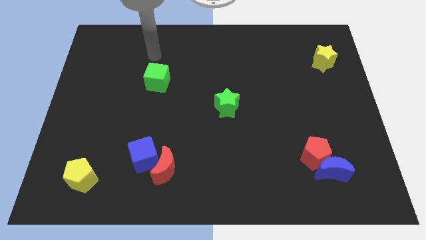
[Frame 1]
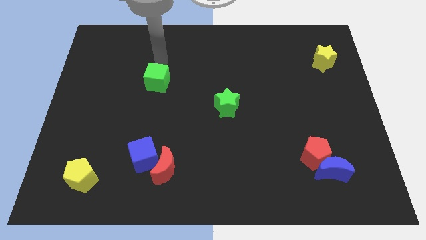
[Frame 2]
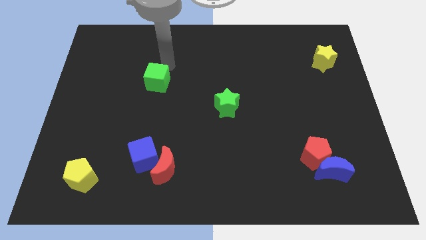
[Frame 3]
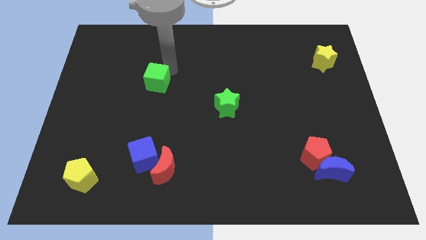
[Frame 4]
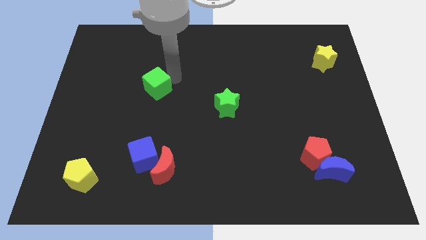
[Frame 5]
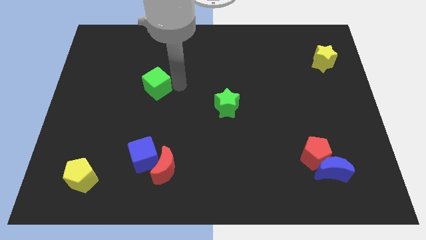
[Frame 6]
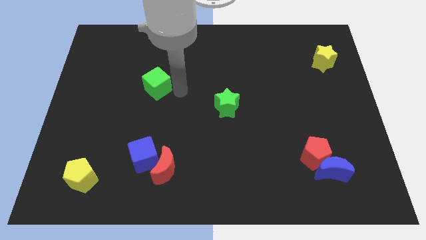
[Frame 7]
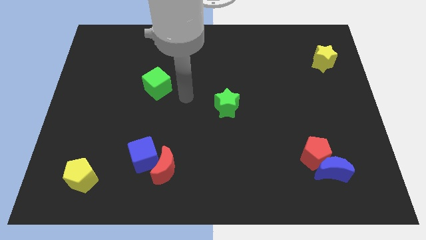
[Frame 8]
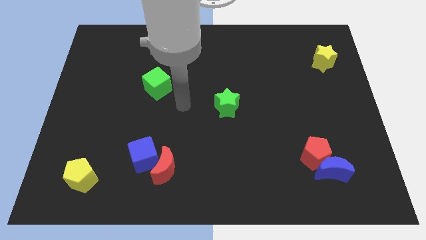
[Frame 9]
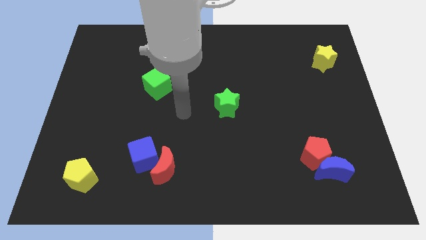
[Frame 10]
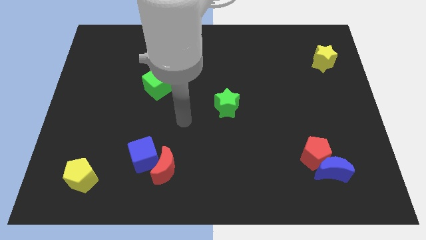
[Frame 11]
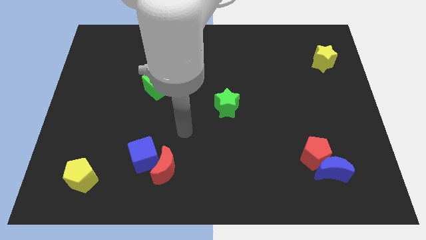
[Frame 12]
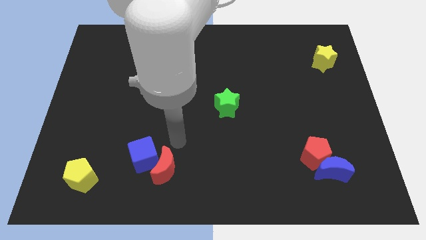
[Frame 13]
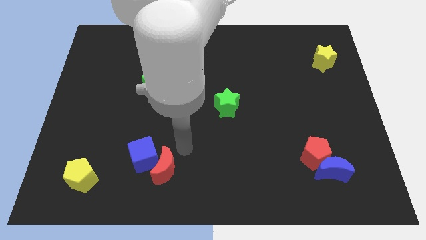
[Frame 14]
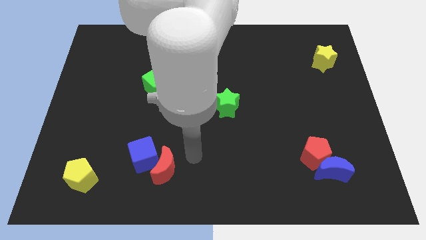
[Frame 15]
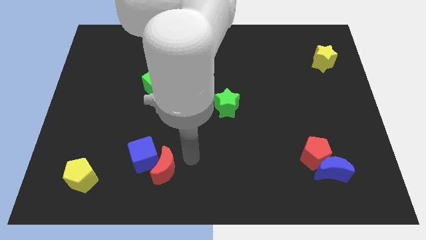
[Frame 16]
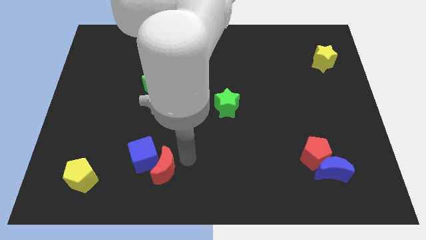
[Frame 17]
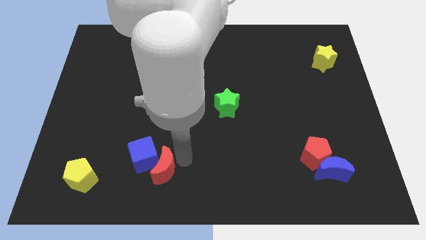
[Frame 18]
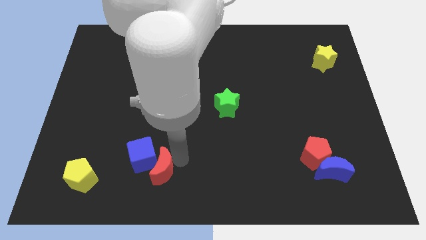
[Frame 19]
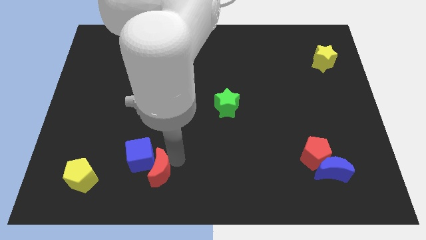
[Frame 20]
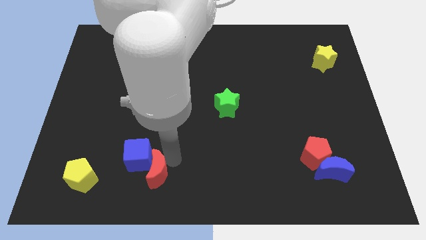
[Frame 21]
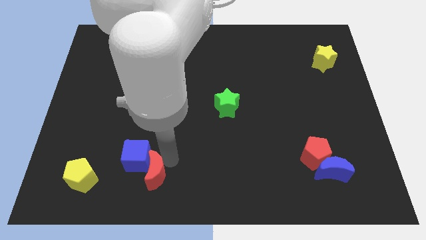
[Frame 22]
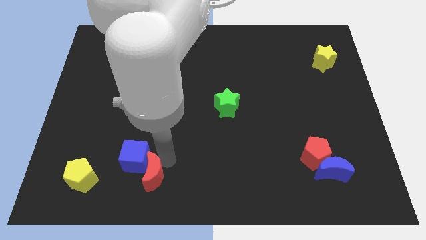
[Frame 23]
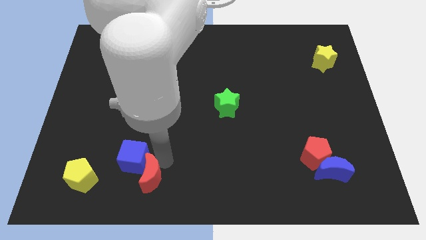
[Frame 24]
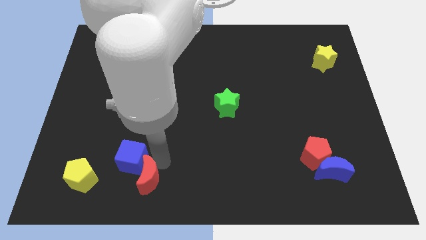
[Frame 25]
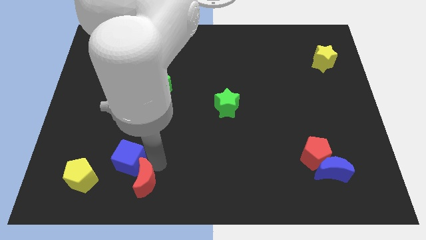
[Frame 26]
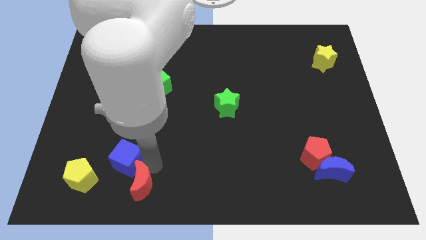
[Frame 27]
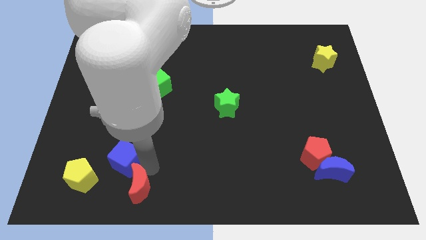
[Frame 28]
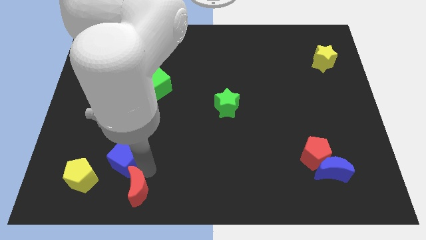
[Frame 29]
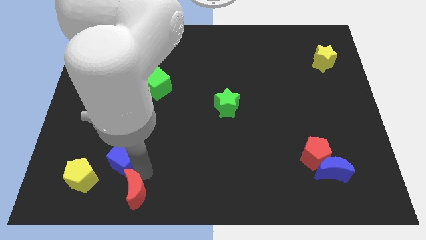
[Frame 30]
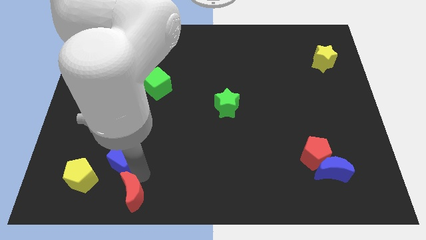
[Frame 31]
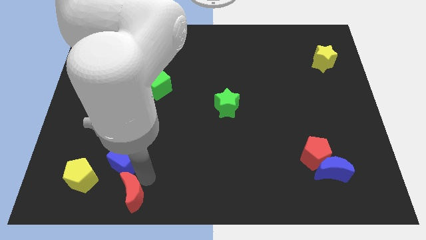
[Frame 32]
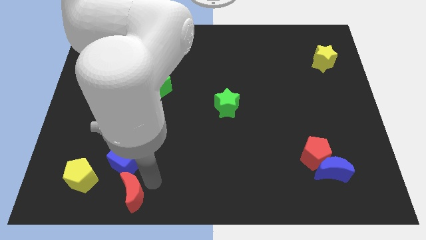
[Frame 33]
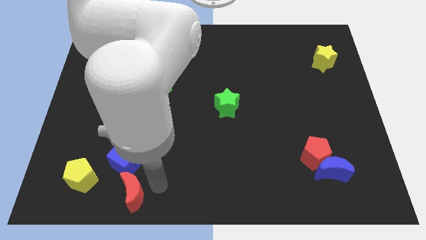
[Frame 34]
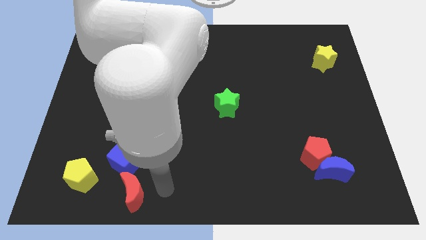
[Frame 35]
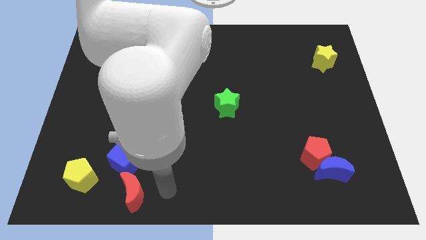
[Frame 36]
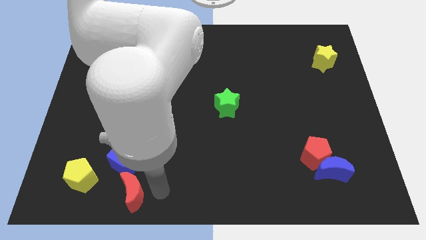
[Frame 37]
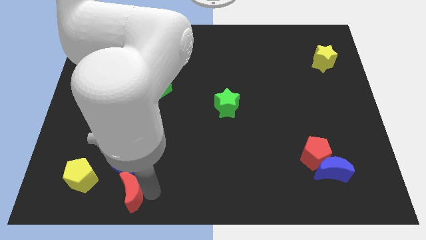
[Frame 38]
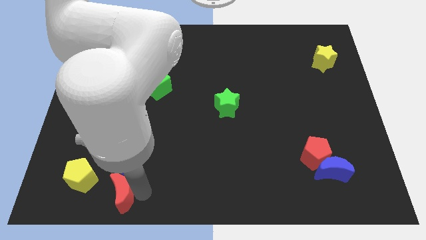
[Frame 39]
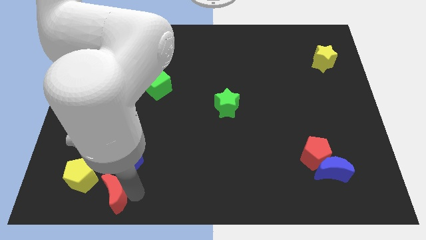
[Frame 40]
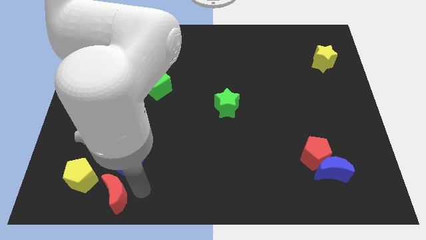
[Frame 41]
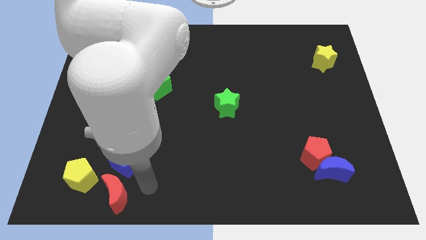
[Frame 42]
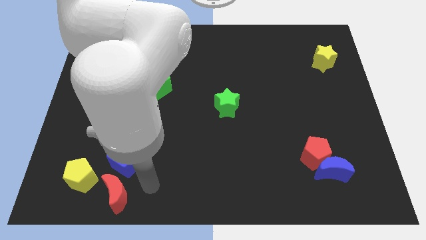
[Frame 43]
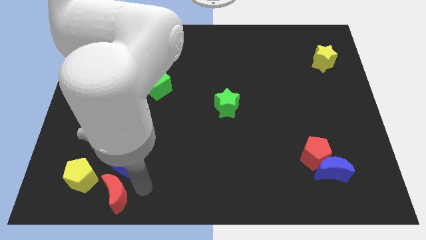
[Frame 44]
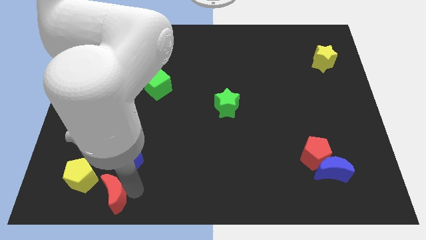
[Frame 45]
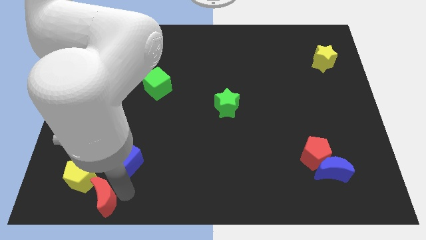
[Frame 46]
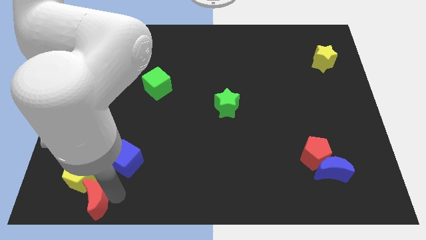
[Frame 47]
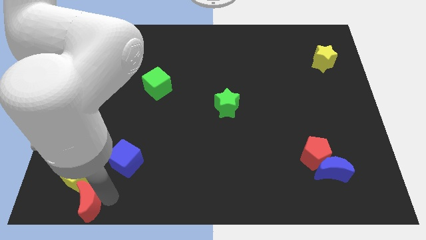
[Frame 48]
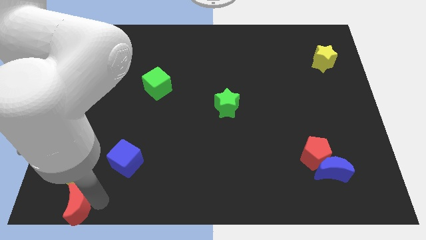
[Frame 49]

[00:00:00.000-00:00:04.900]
slide the red moon to the bottom left

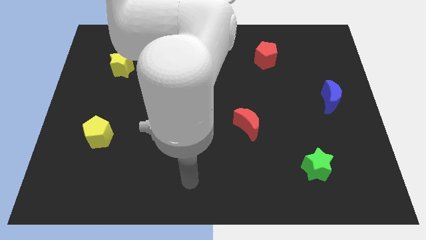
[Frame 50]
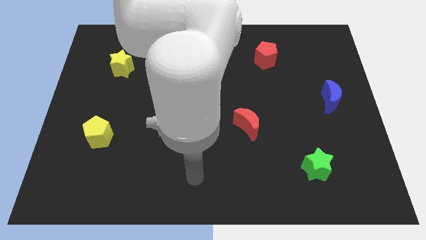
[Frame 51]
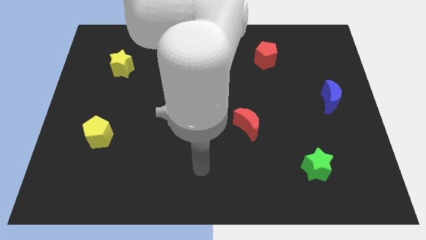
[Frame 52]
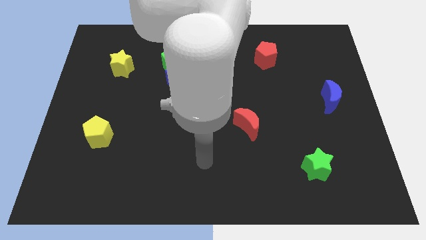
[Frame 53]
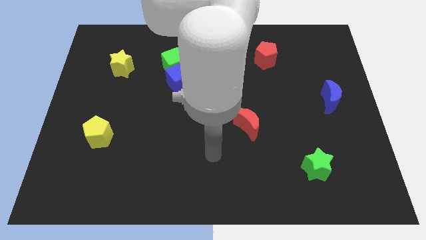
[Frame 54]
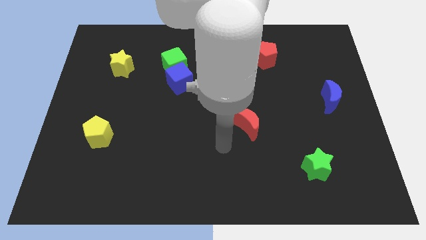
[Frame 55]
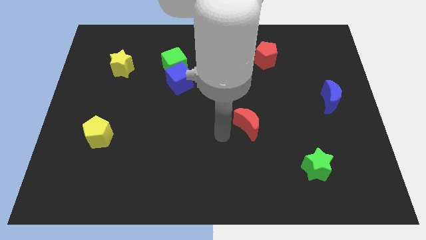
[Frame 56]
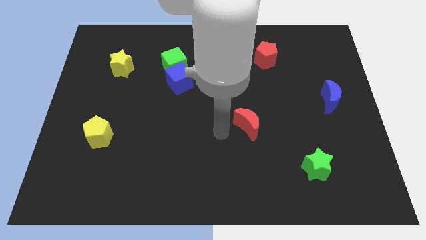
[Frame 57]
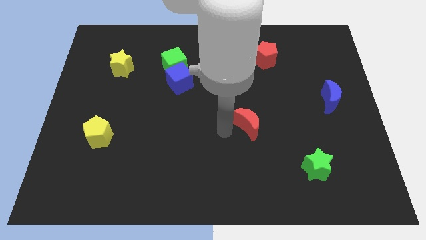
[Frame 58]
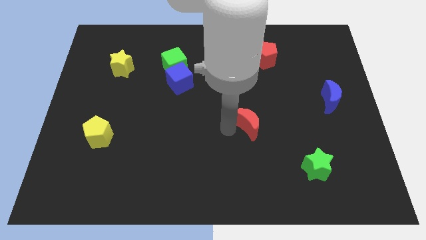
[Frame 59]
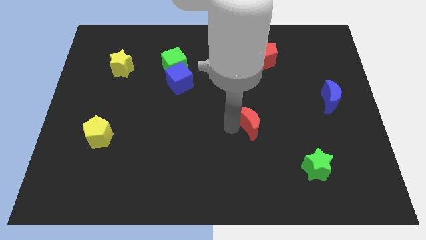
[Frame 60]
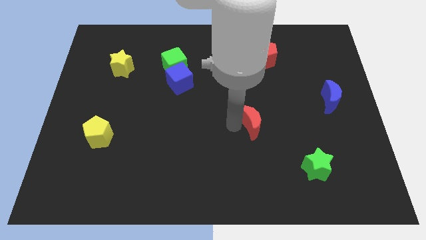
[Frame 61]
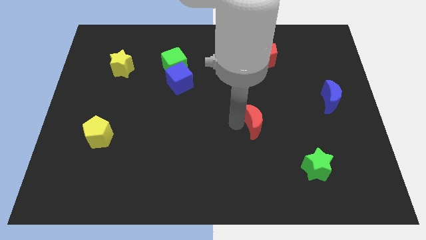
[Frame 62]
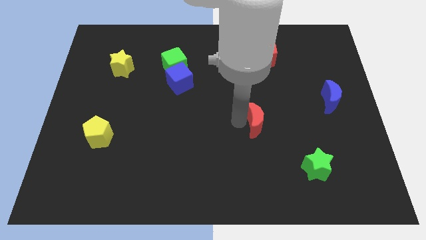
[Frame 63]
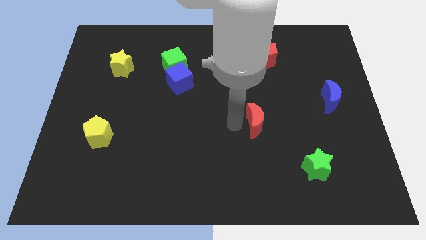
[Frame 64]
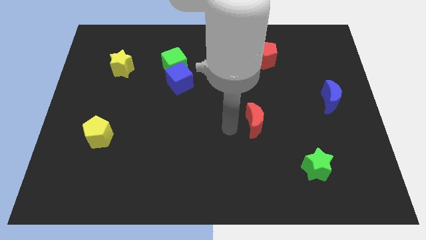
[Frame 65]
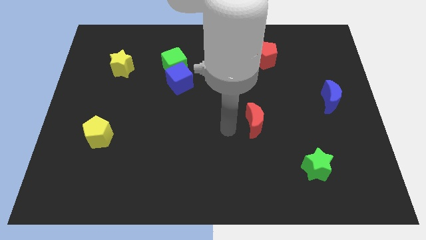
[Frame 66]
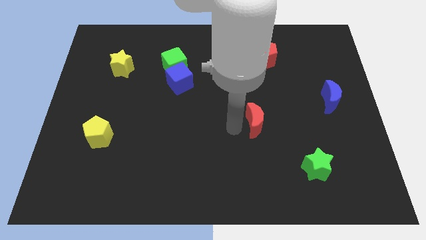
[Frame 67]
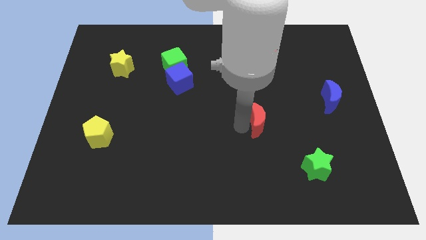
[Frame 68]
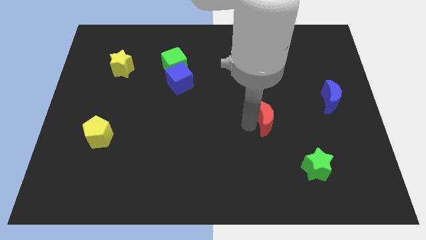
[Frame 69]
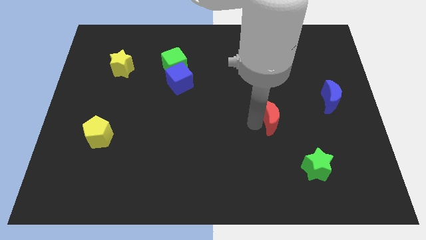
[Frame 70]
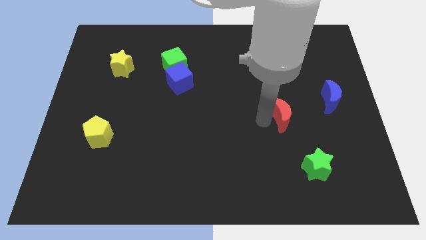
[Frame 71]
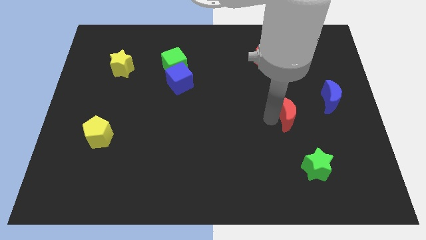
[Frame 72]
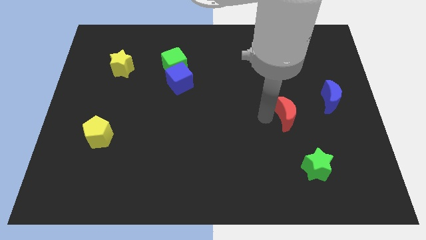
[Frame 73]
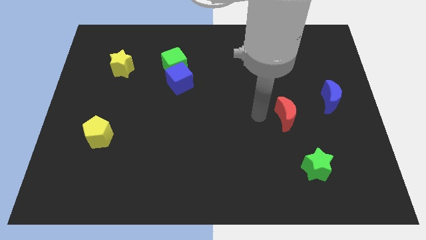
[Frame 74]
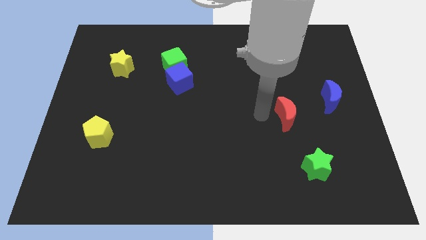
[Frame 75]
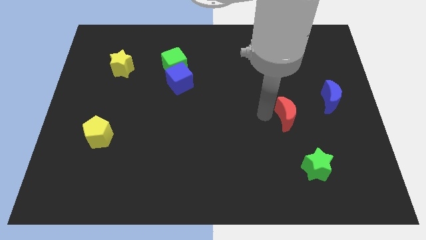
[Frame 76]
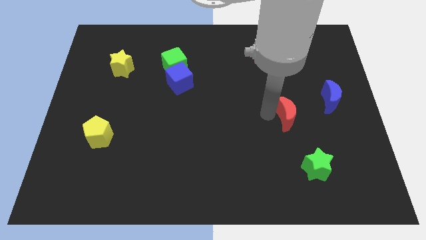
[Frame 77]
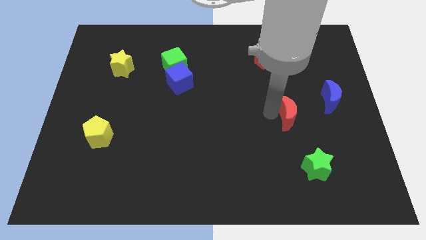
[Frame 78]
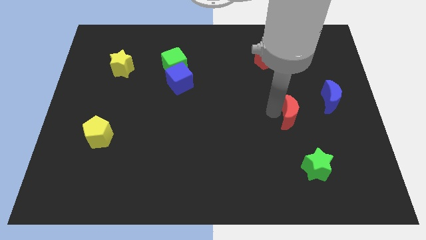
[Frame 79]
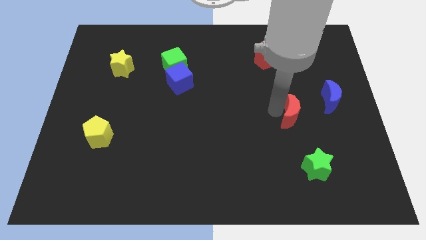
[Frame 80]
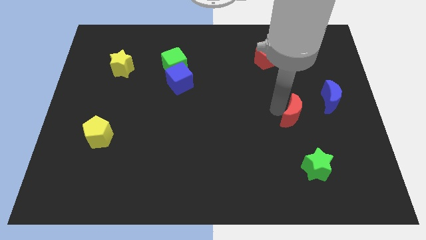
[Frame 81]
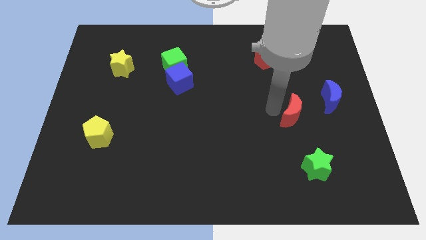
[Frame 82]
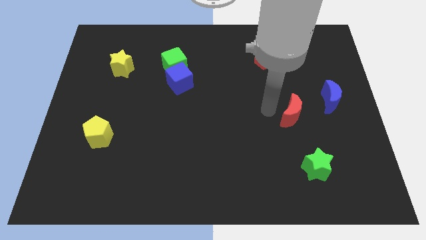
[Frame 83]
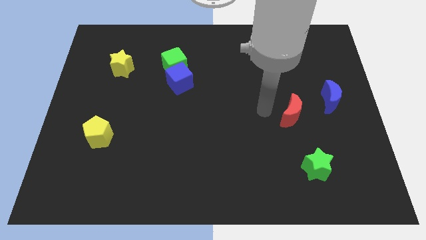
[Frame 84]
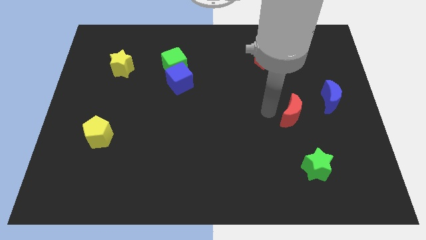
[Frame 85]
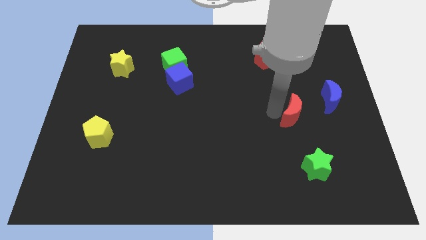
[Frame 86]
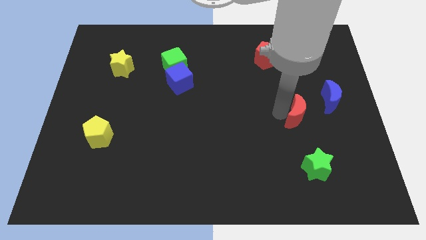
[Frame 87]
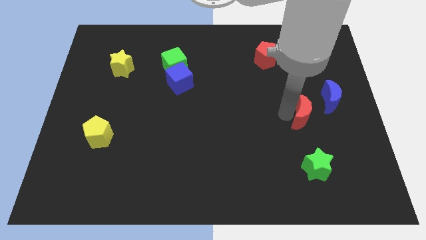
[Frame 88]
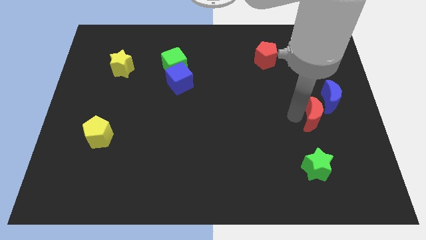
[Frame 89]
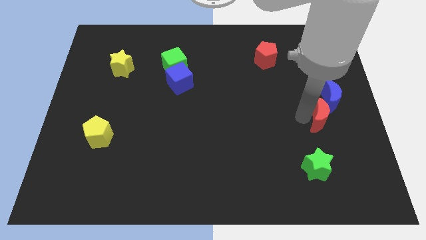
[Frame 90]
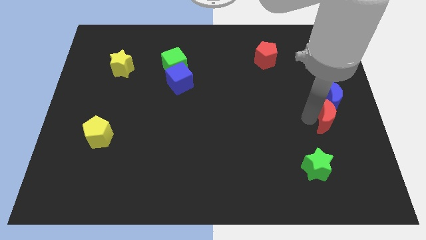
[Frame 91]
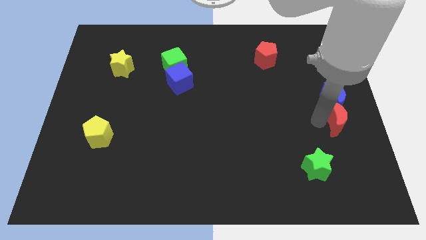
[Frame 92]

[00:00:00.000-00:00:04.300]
slide the red moon to the right side of the board
